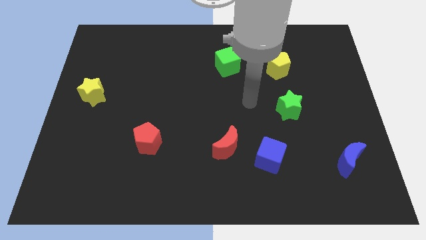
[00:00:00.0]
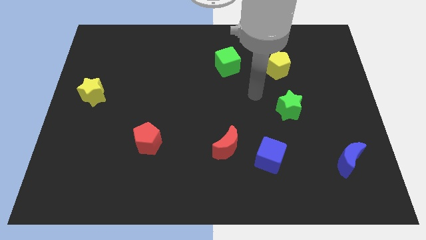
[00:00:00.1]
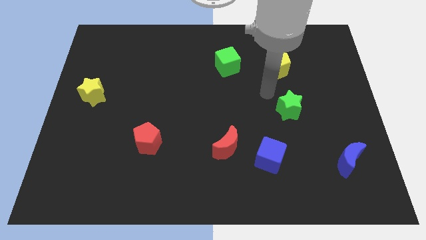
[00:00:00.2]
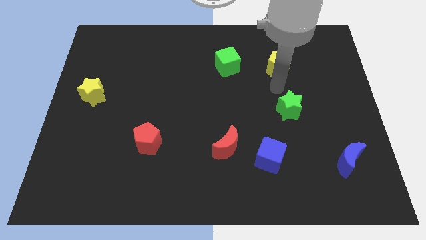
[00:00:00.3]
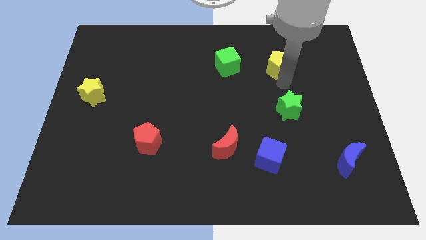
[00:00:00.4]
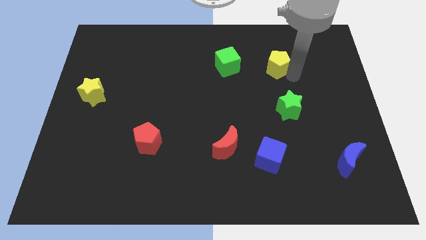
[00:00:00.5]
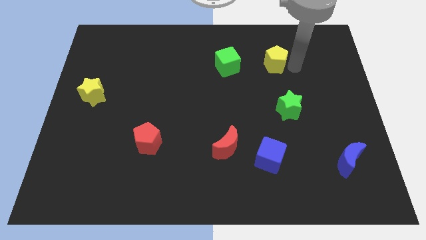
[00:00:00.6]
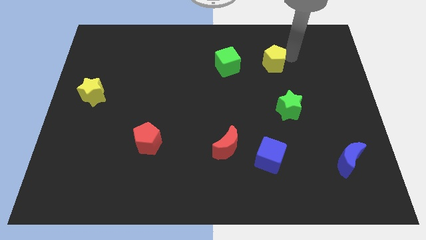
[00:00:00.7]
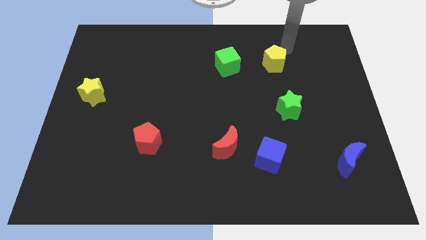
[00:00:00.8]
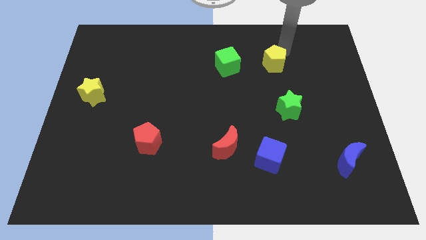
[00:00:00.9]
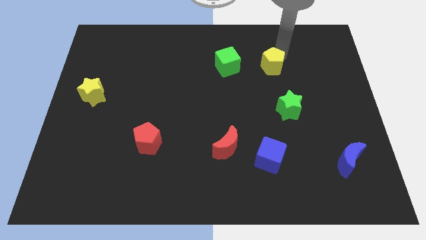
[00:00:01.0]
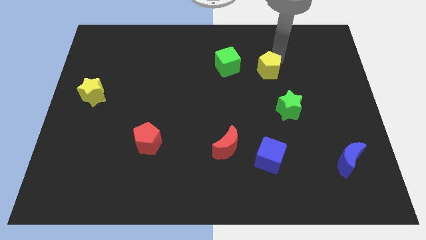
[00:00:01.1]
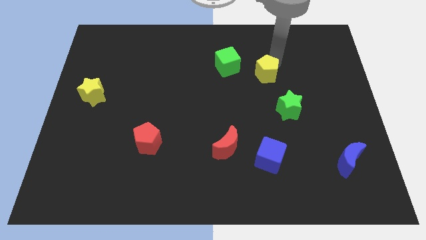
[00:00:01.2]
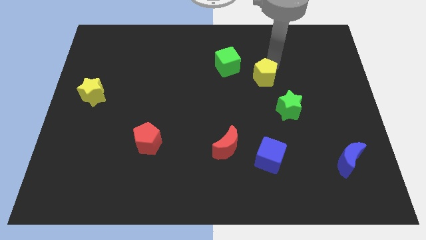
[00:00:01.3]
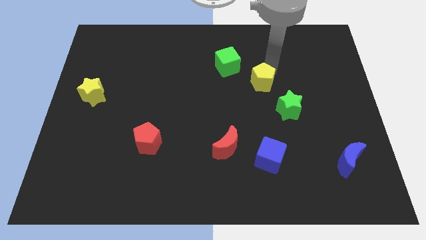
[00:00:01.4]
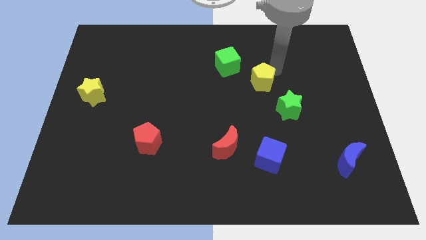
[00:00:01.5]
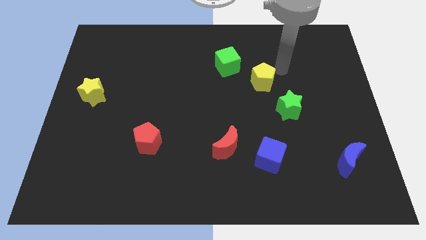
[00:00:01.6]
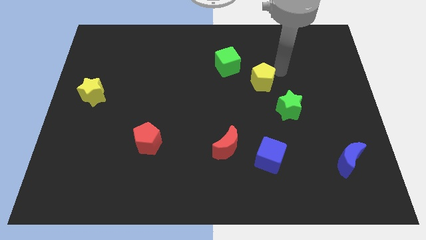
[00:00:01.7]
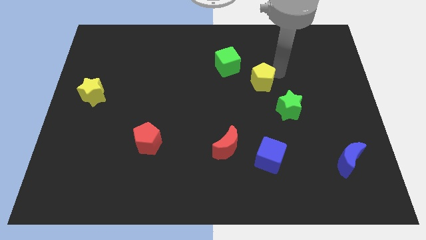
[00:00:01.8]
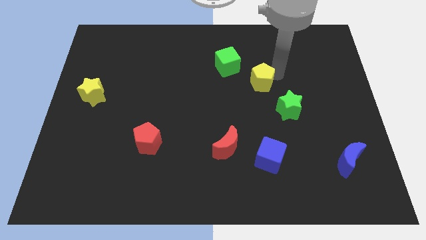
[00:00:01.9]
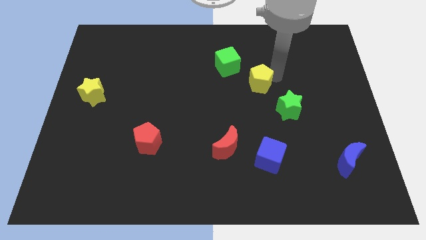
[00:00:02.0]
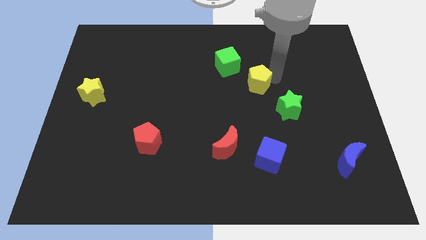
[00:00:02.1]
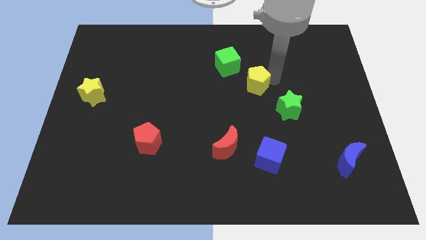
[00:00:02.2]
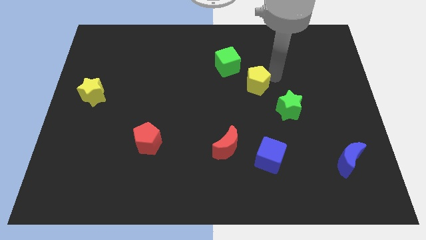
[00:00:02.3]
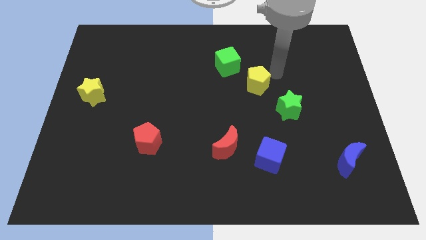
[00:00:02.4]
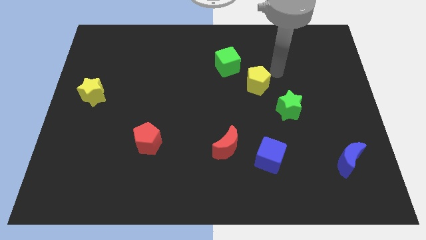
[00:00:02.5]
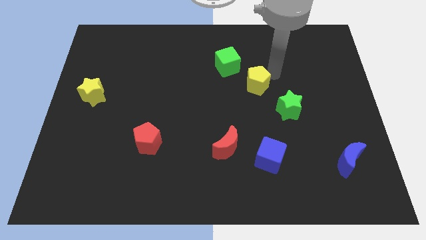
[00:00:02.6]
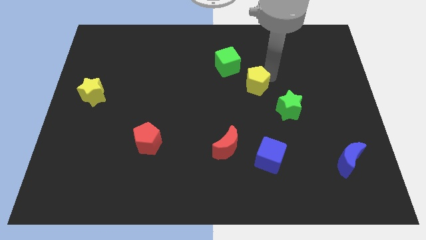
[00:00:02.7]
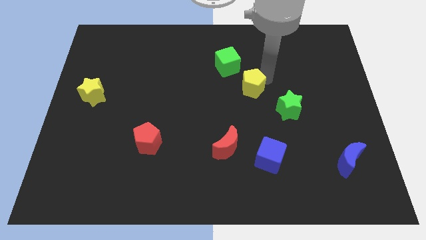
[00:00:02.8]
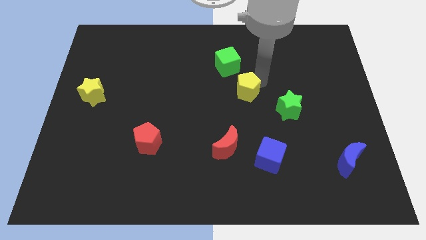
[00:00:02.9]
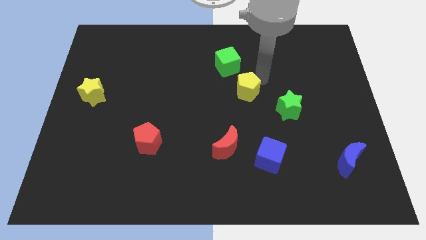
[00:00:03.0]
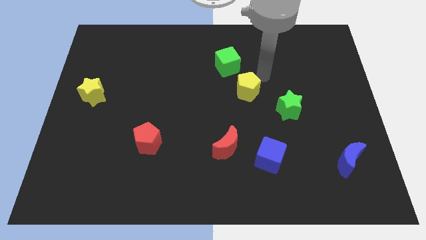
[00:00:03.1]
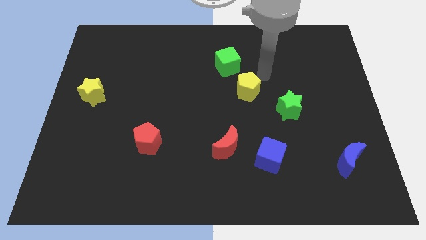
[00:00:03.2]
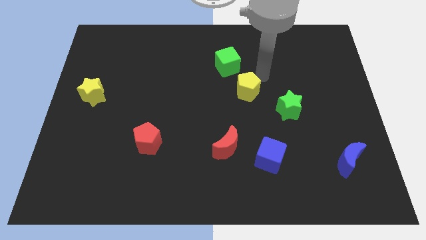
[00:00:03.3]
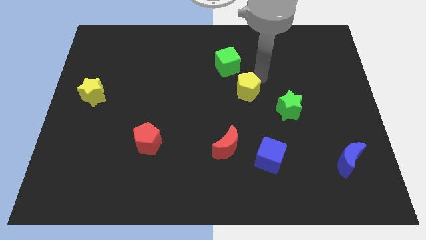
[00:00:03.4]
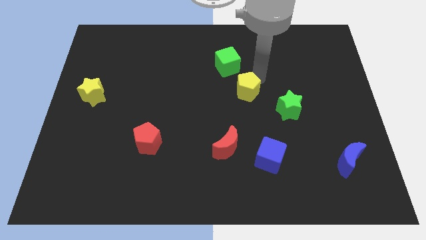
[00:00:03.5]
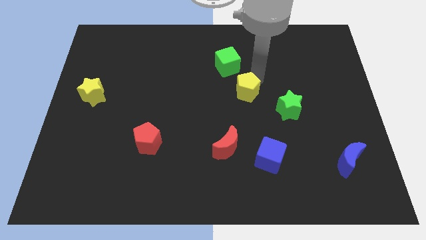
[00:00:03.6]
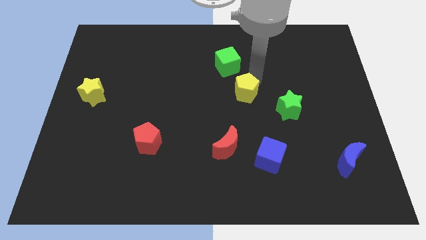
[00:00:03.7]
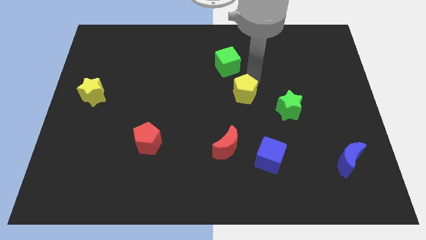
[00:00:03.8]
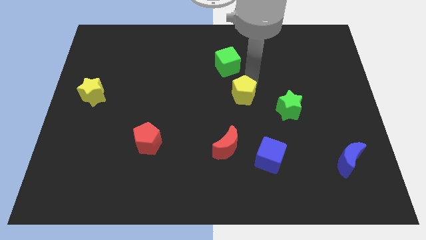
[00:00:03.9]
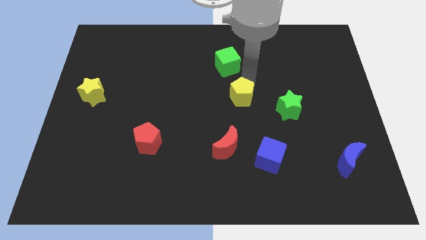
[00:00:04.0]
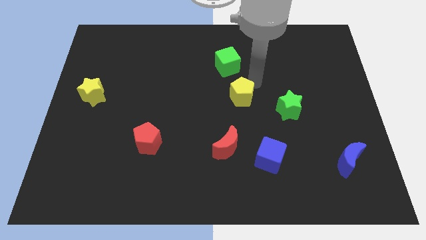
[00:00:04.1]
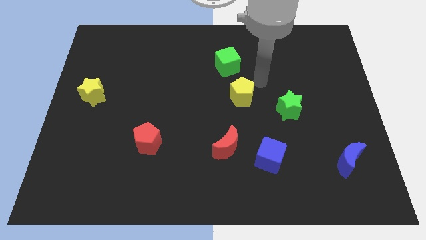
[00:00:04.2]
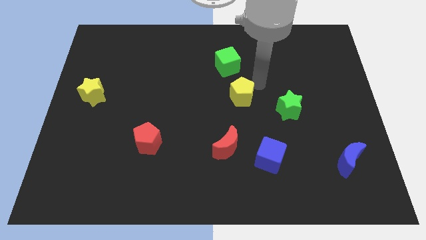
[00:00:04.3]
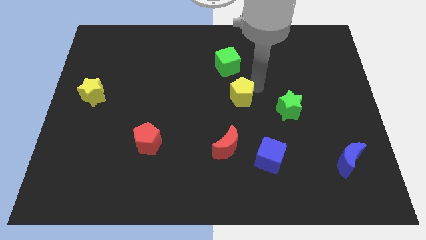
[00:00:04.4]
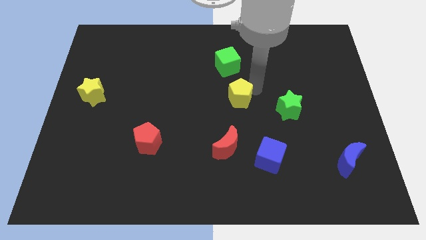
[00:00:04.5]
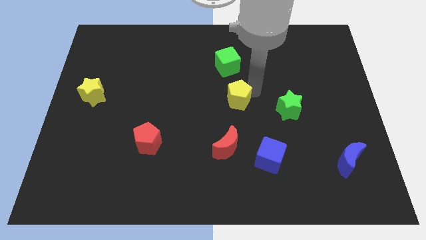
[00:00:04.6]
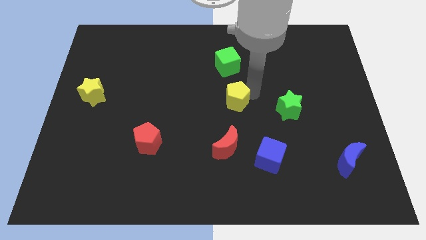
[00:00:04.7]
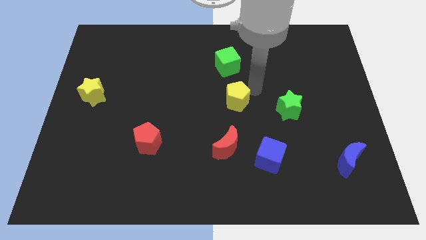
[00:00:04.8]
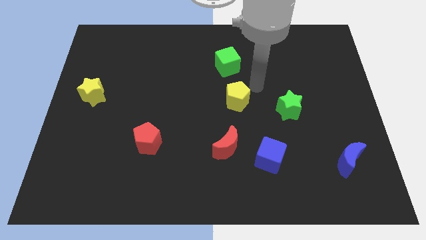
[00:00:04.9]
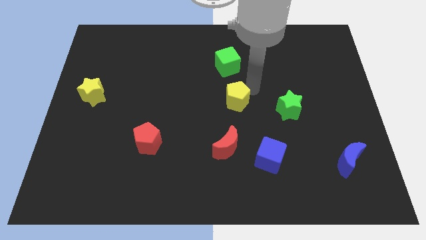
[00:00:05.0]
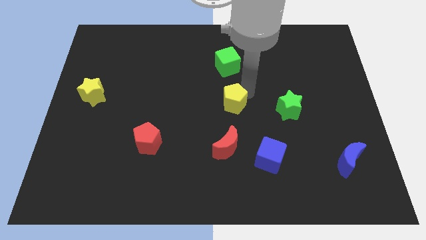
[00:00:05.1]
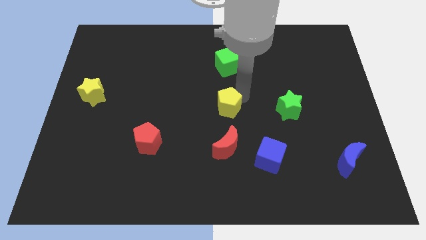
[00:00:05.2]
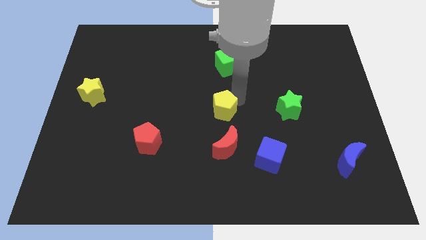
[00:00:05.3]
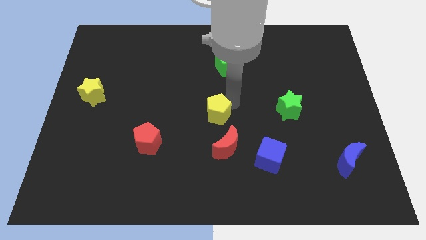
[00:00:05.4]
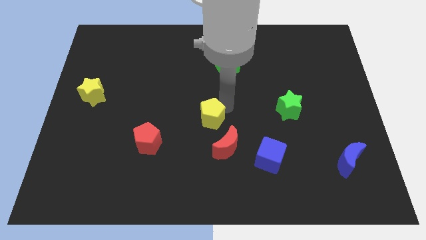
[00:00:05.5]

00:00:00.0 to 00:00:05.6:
slide the yellow pentagon diagonally up and to the left of the red moon

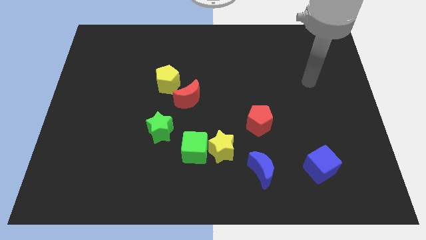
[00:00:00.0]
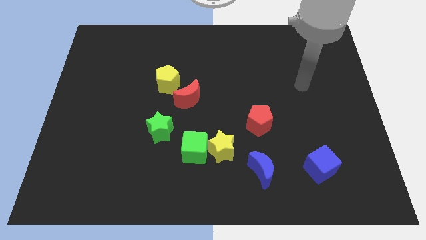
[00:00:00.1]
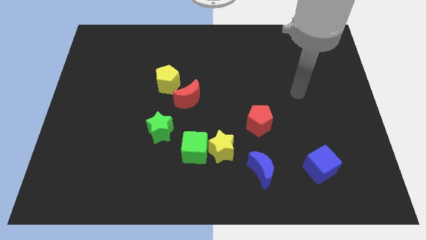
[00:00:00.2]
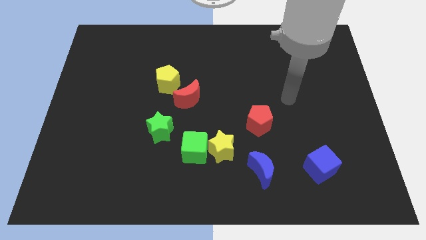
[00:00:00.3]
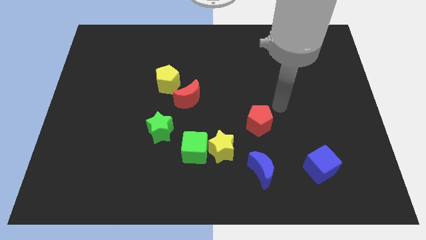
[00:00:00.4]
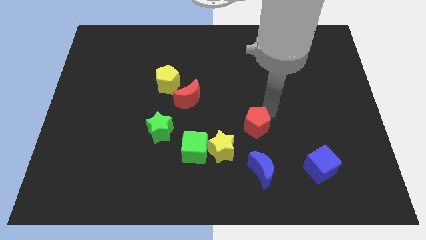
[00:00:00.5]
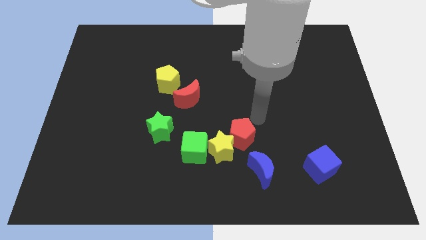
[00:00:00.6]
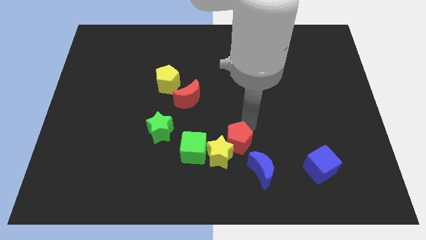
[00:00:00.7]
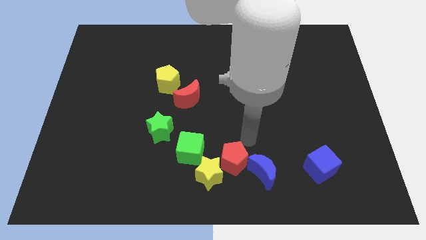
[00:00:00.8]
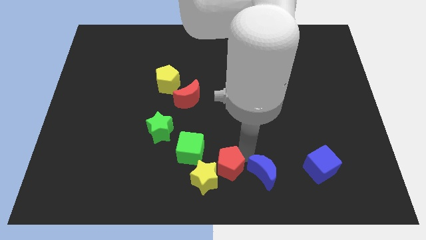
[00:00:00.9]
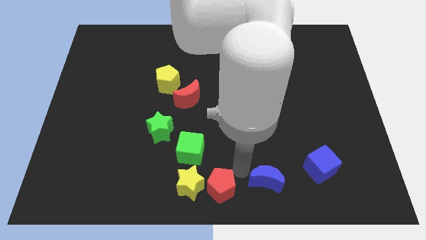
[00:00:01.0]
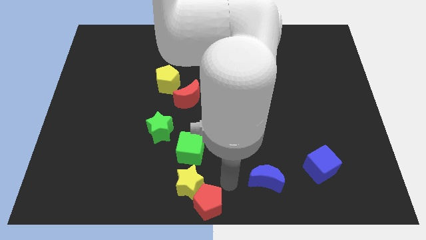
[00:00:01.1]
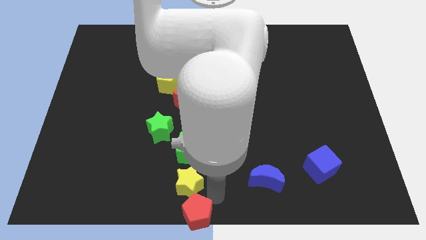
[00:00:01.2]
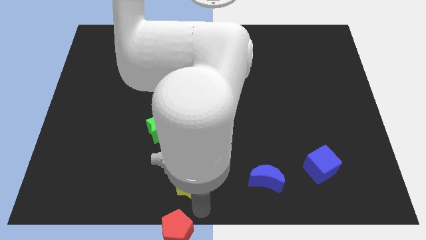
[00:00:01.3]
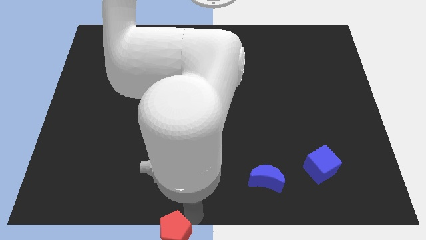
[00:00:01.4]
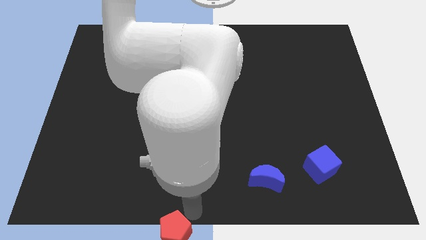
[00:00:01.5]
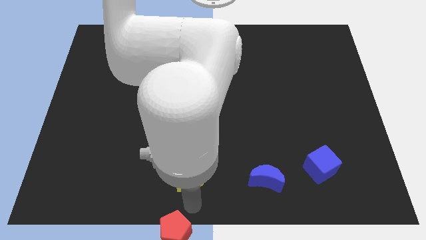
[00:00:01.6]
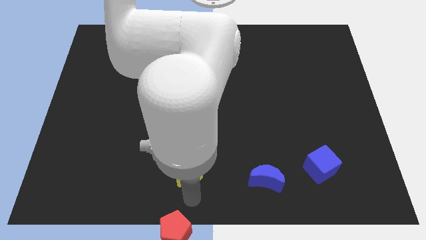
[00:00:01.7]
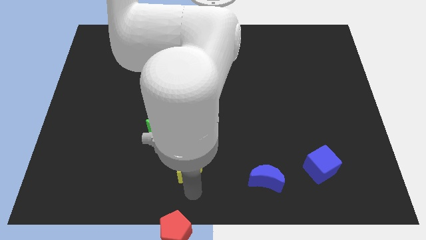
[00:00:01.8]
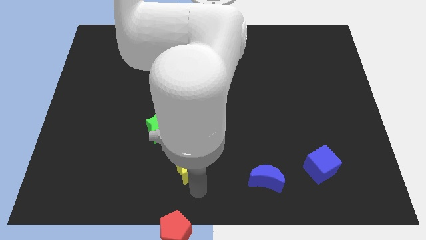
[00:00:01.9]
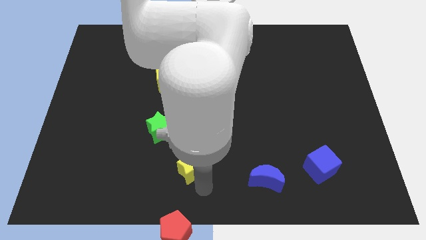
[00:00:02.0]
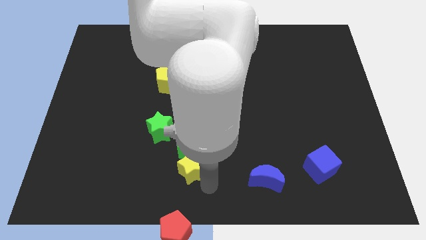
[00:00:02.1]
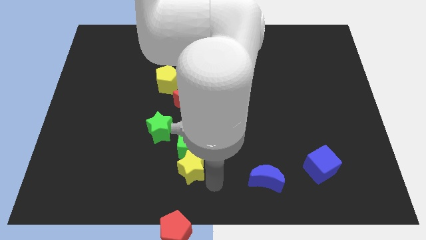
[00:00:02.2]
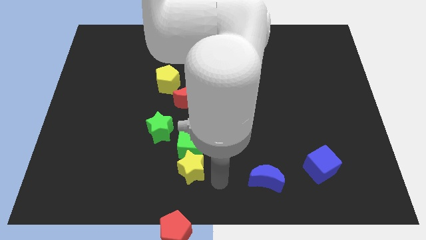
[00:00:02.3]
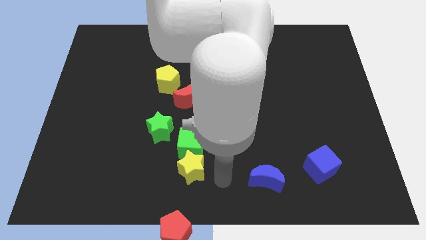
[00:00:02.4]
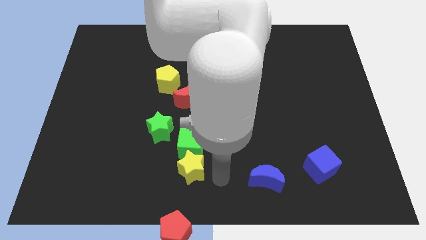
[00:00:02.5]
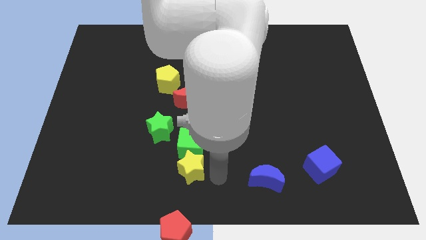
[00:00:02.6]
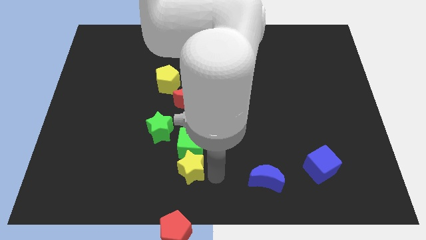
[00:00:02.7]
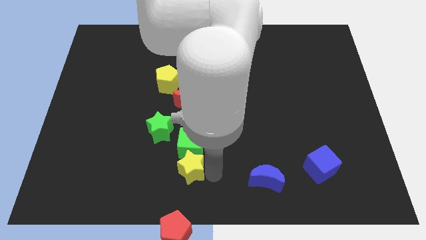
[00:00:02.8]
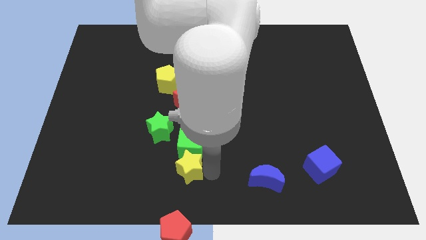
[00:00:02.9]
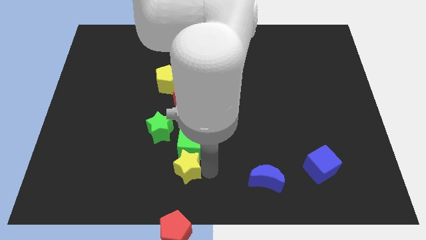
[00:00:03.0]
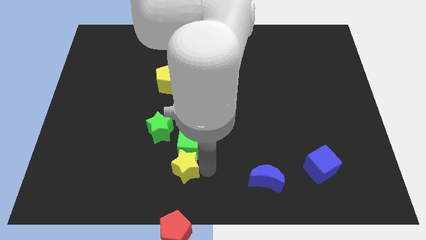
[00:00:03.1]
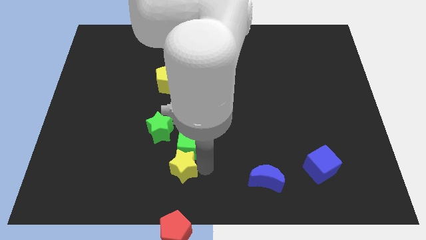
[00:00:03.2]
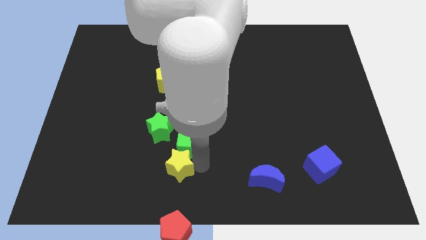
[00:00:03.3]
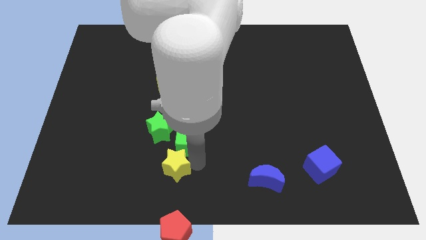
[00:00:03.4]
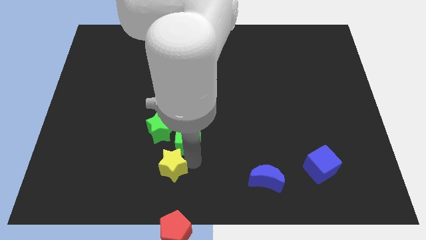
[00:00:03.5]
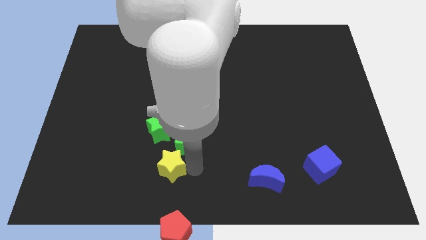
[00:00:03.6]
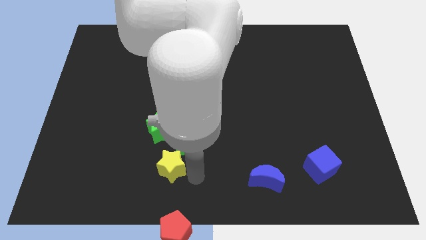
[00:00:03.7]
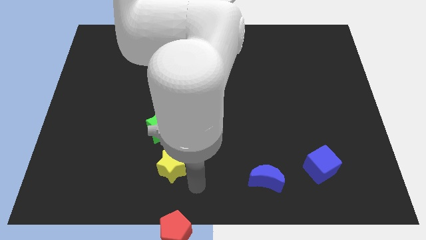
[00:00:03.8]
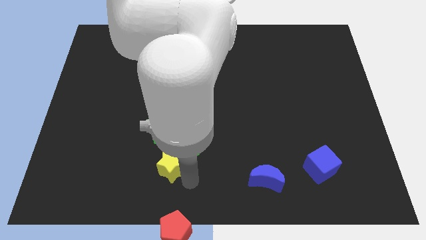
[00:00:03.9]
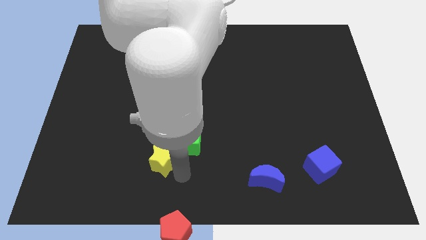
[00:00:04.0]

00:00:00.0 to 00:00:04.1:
put the yellow star just left of the green cube
